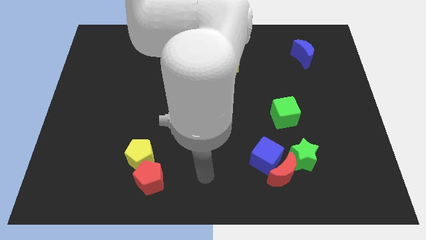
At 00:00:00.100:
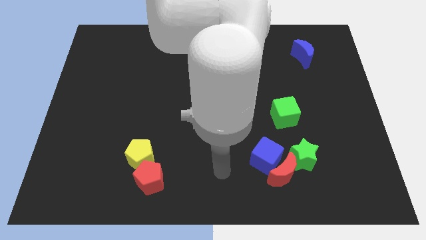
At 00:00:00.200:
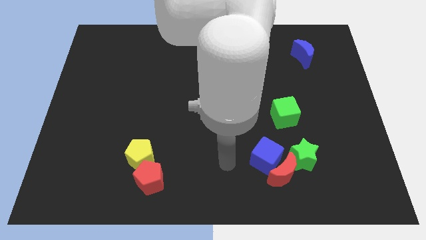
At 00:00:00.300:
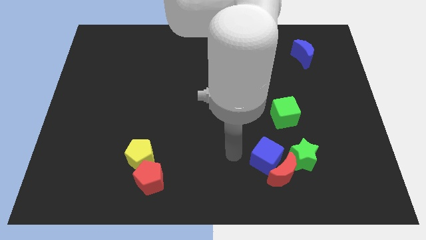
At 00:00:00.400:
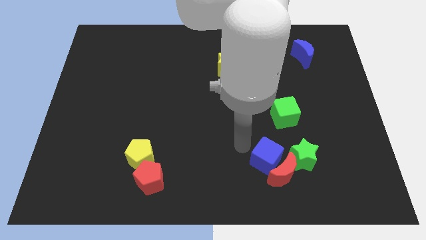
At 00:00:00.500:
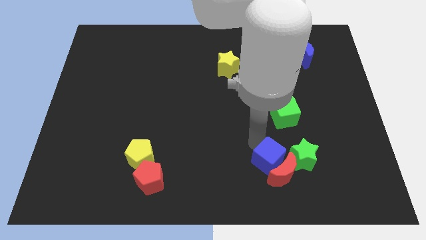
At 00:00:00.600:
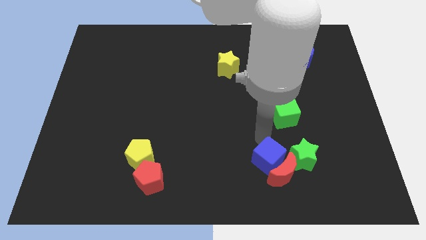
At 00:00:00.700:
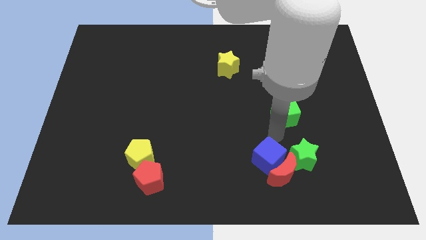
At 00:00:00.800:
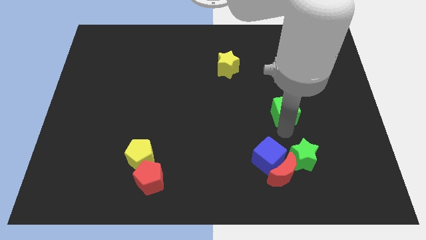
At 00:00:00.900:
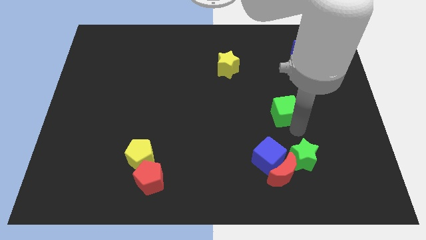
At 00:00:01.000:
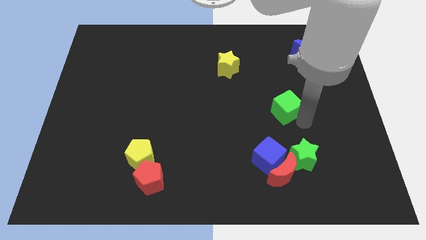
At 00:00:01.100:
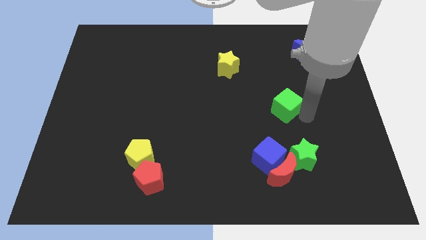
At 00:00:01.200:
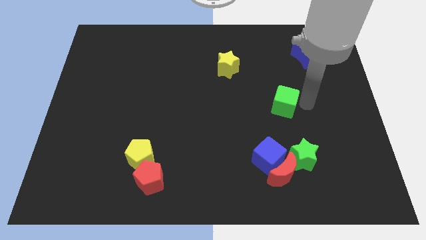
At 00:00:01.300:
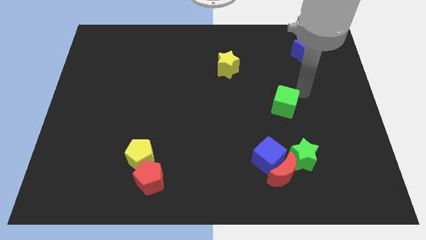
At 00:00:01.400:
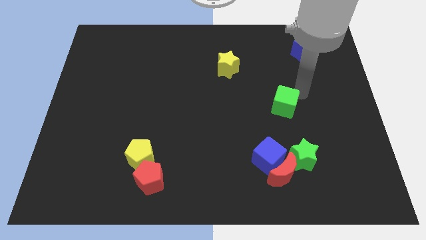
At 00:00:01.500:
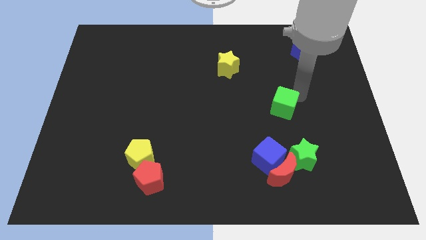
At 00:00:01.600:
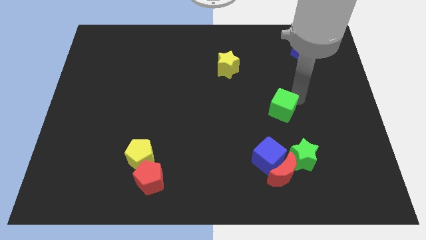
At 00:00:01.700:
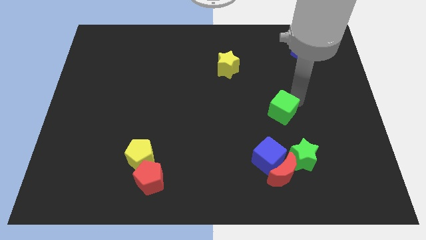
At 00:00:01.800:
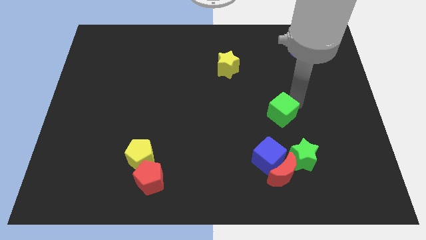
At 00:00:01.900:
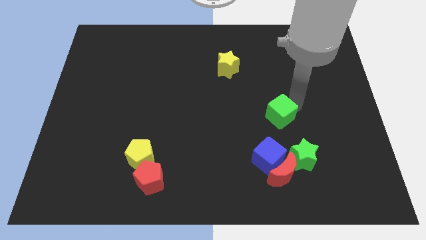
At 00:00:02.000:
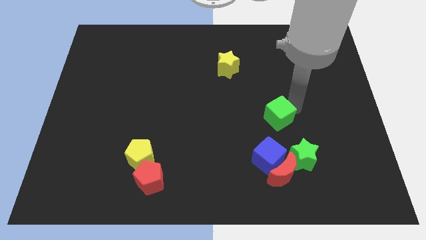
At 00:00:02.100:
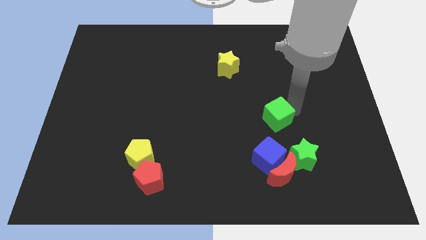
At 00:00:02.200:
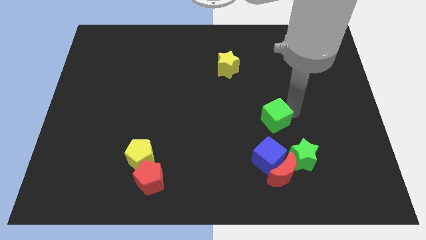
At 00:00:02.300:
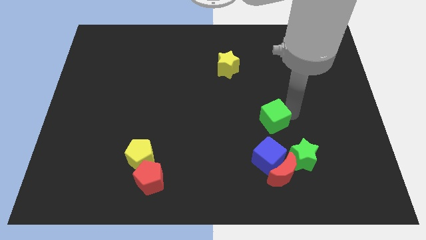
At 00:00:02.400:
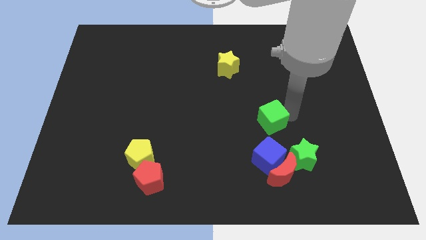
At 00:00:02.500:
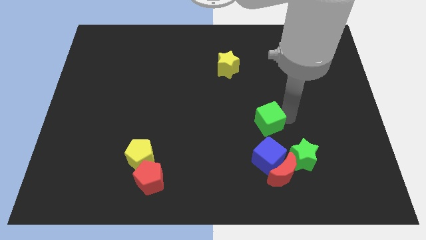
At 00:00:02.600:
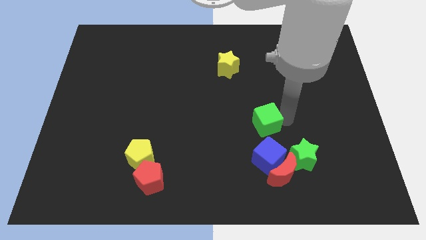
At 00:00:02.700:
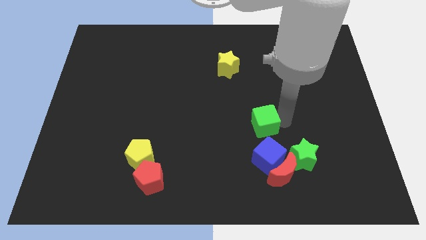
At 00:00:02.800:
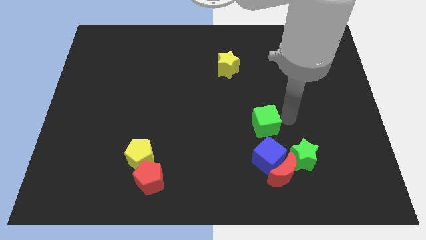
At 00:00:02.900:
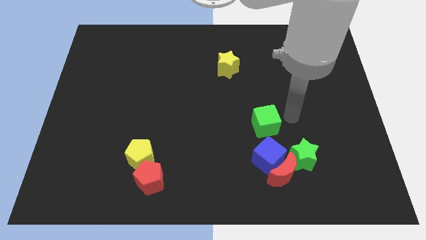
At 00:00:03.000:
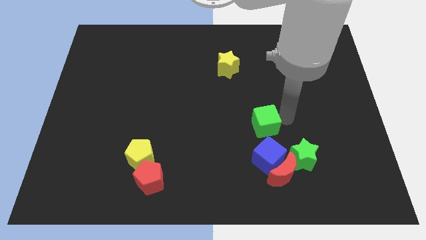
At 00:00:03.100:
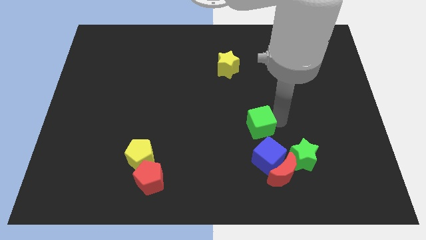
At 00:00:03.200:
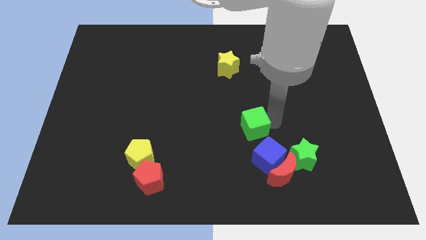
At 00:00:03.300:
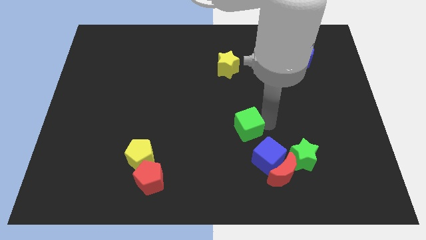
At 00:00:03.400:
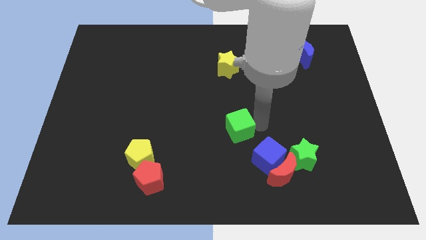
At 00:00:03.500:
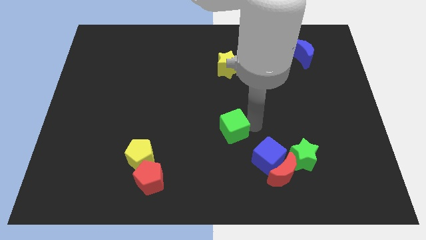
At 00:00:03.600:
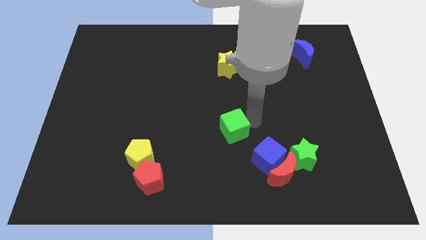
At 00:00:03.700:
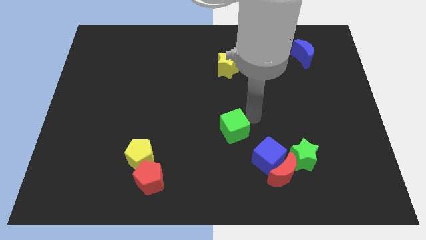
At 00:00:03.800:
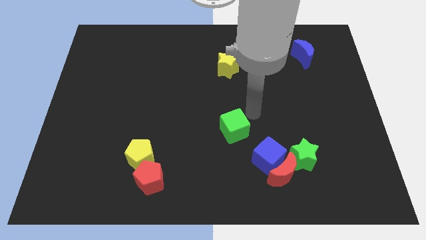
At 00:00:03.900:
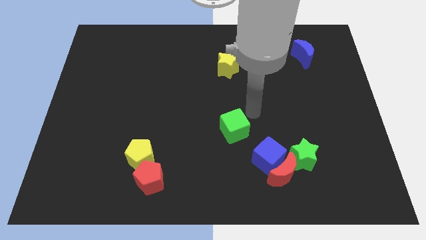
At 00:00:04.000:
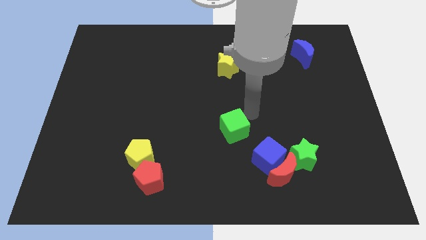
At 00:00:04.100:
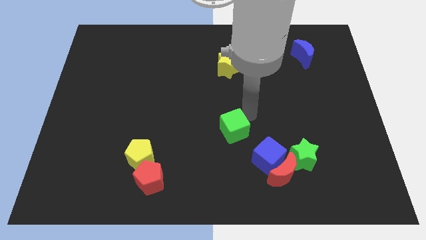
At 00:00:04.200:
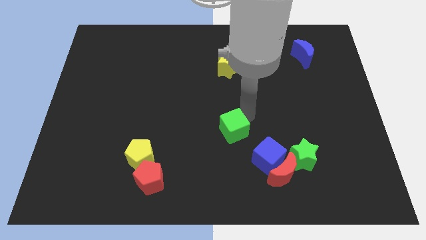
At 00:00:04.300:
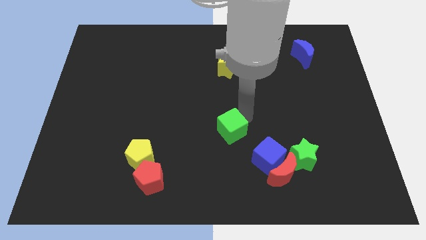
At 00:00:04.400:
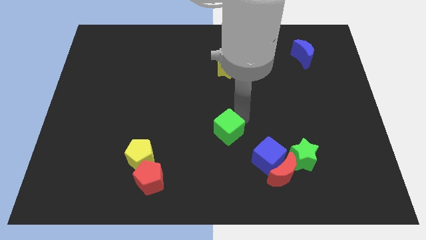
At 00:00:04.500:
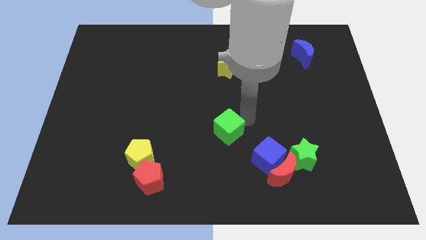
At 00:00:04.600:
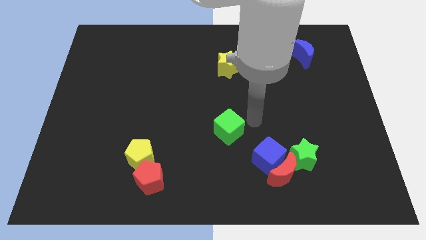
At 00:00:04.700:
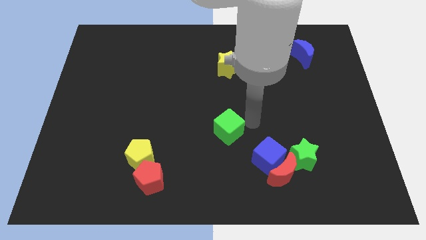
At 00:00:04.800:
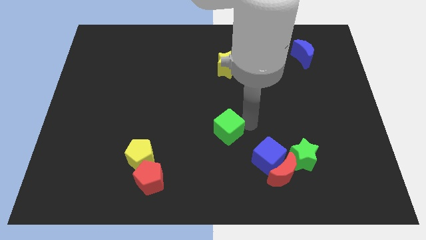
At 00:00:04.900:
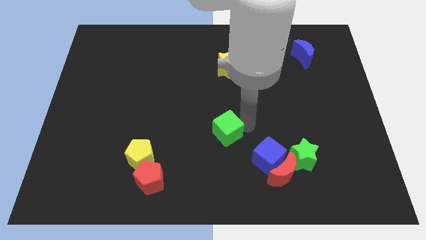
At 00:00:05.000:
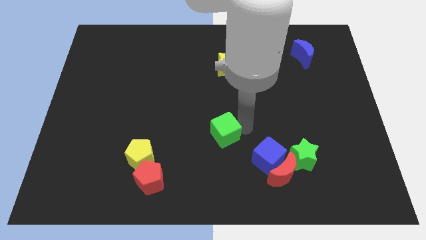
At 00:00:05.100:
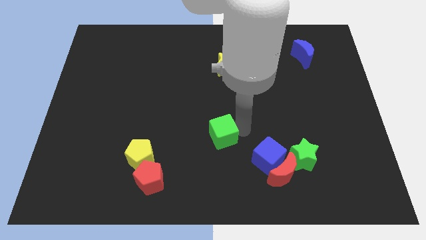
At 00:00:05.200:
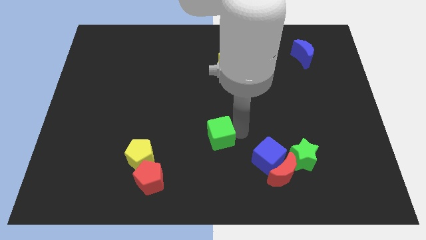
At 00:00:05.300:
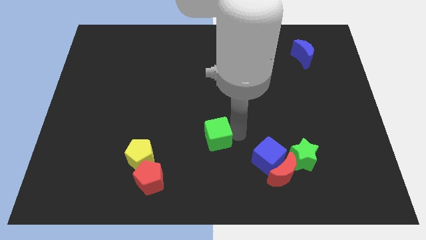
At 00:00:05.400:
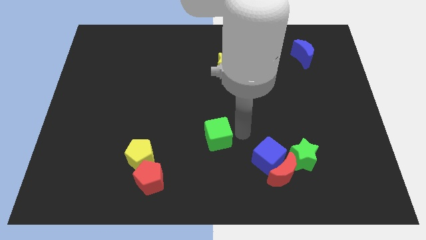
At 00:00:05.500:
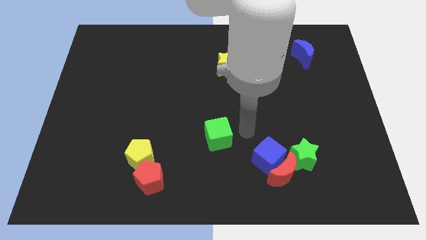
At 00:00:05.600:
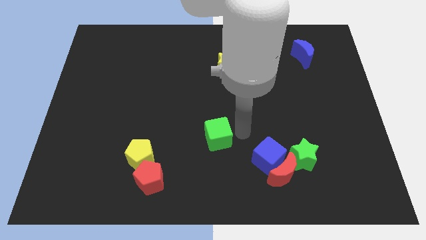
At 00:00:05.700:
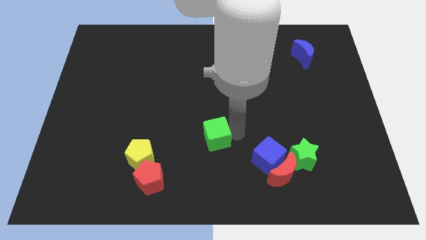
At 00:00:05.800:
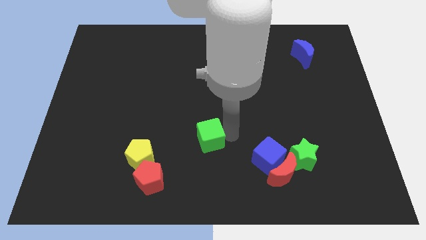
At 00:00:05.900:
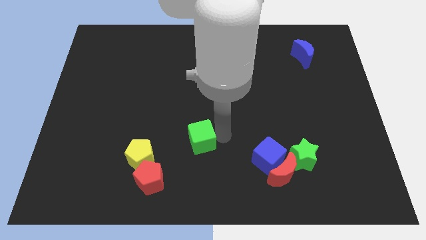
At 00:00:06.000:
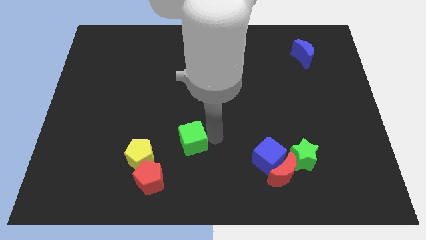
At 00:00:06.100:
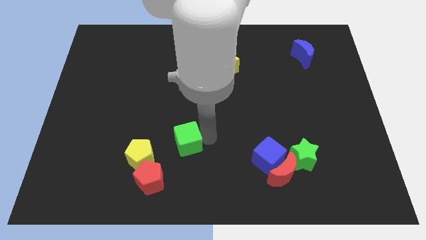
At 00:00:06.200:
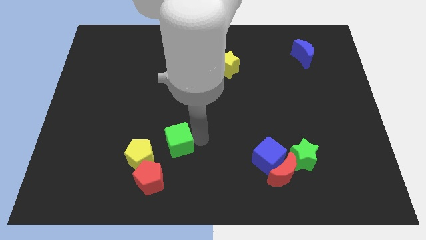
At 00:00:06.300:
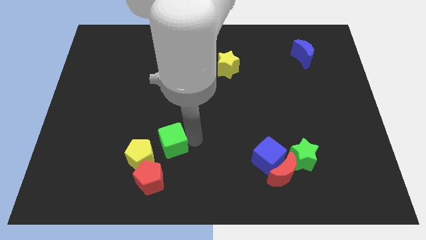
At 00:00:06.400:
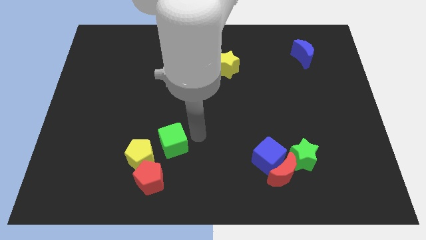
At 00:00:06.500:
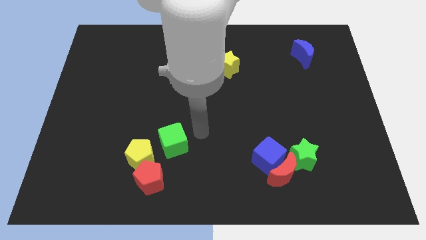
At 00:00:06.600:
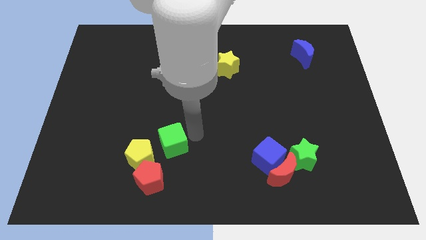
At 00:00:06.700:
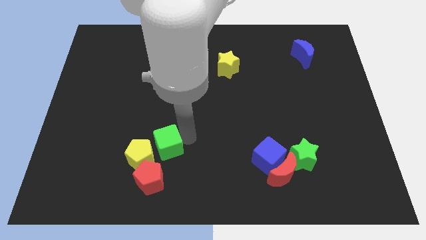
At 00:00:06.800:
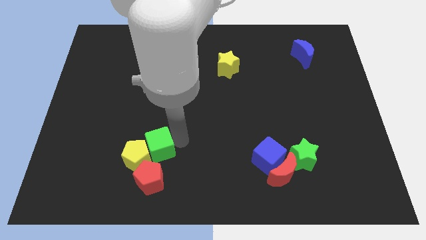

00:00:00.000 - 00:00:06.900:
slide the green cube to the yellow pentagon

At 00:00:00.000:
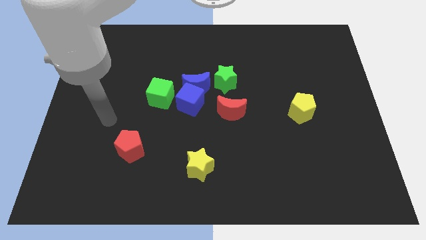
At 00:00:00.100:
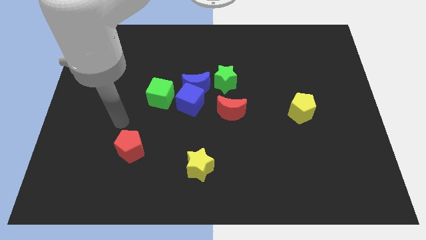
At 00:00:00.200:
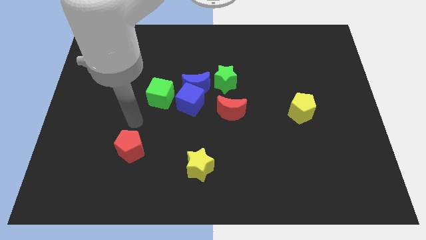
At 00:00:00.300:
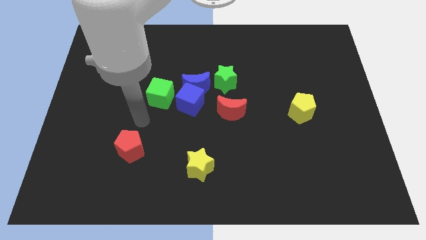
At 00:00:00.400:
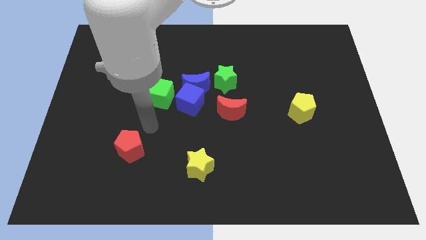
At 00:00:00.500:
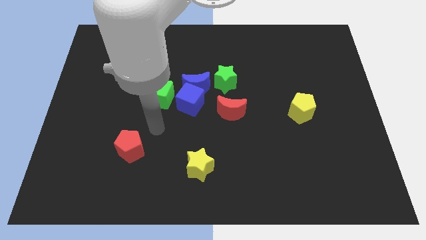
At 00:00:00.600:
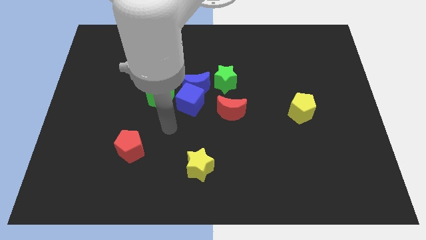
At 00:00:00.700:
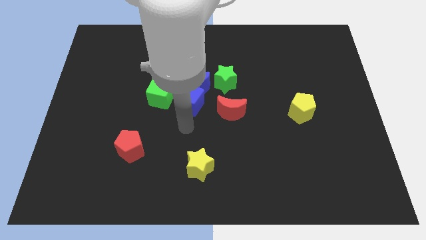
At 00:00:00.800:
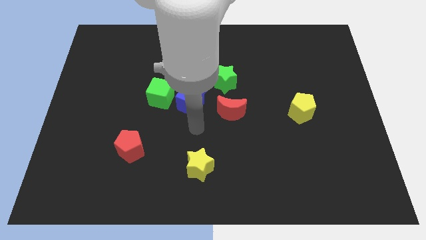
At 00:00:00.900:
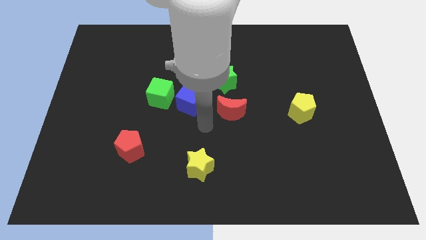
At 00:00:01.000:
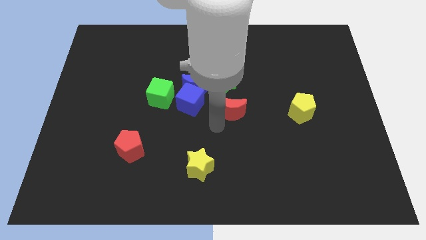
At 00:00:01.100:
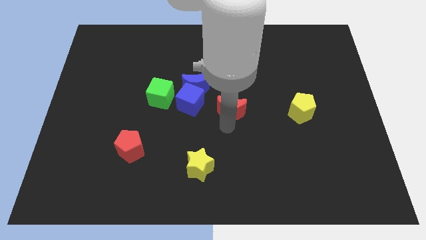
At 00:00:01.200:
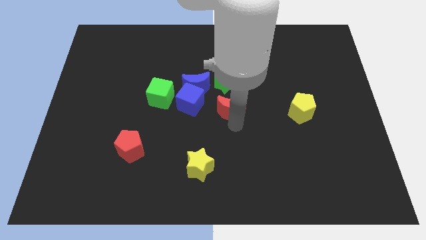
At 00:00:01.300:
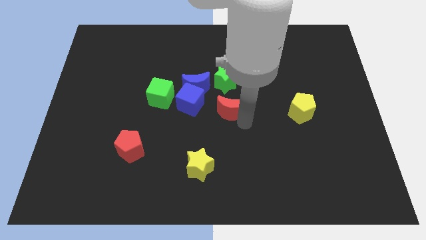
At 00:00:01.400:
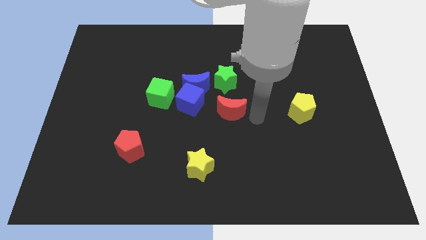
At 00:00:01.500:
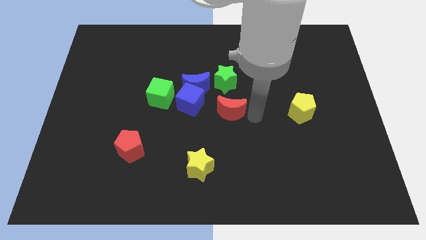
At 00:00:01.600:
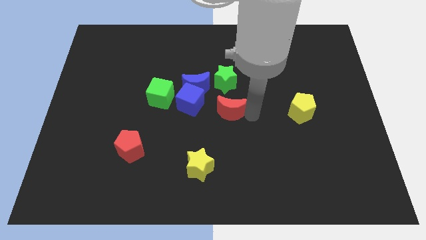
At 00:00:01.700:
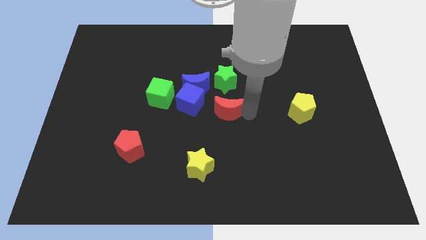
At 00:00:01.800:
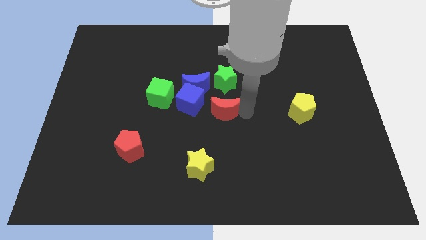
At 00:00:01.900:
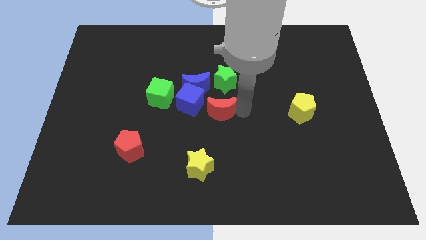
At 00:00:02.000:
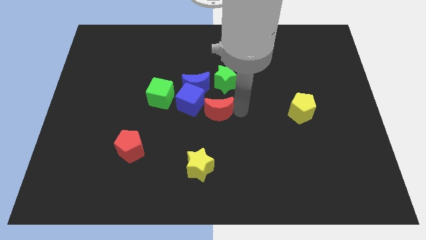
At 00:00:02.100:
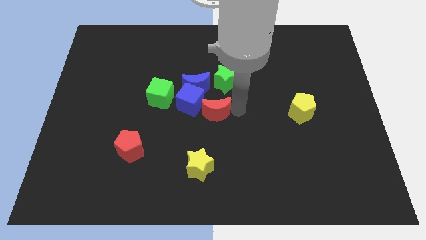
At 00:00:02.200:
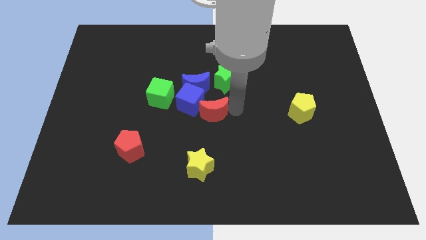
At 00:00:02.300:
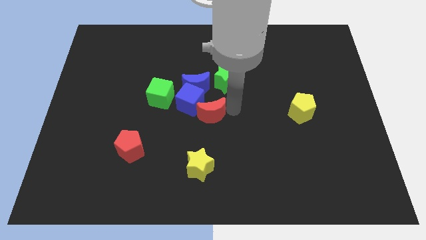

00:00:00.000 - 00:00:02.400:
move the red moon to the blue cube
